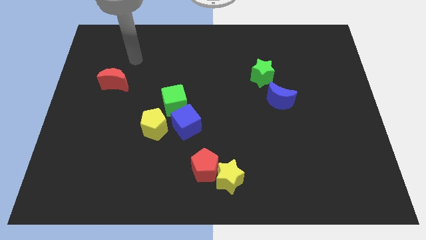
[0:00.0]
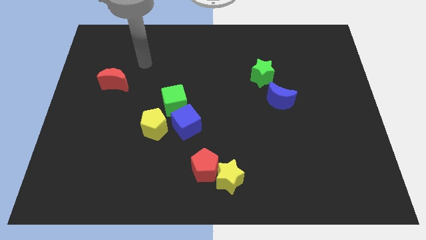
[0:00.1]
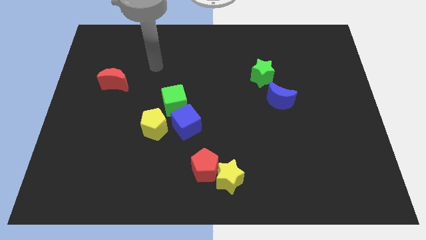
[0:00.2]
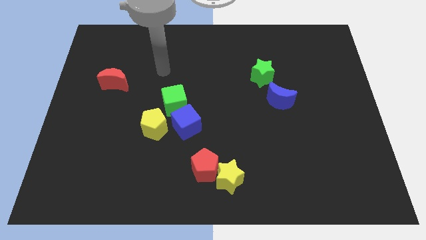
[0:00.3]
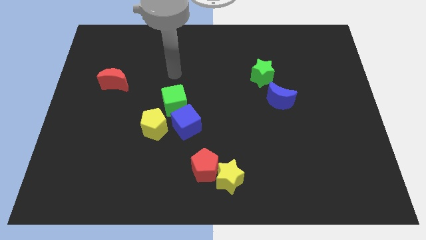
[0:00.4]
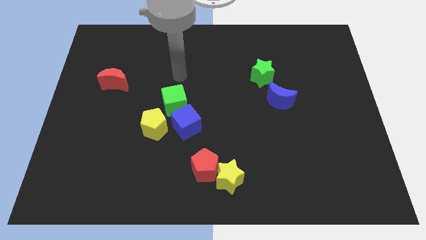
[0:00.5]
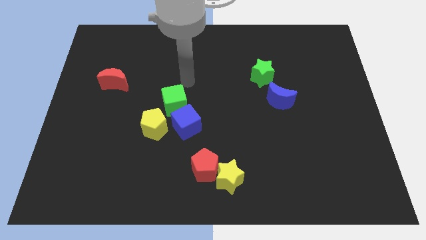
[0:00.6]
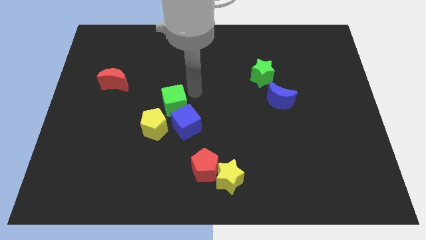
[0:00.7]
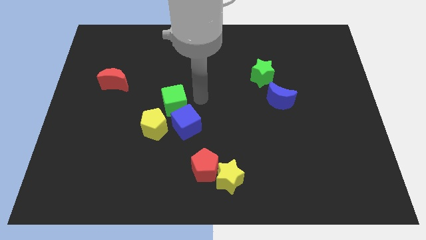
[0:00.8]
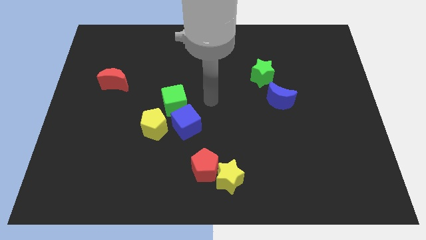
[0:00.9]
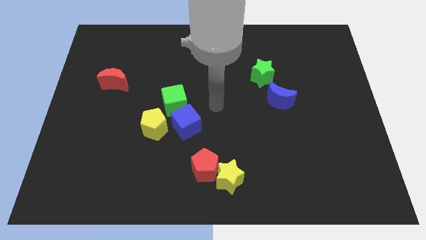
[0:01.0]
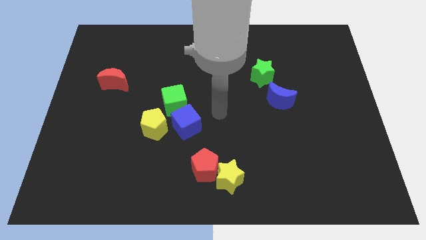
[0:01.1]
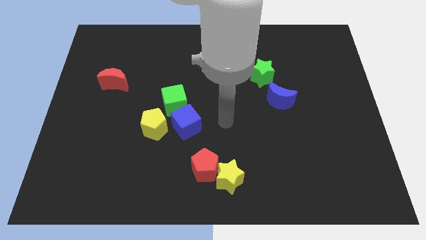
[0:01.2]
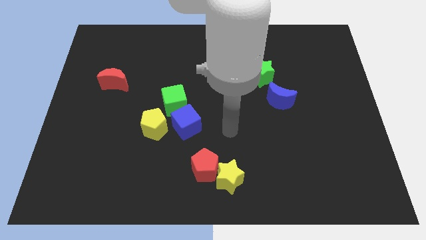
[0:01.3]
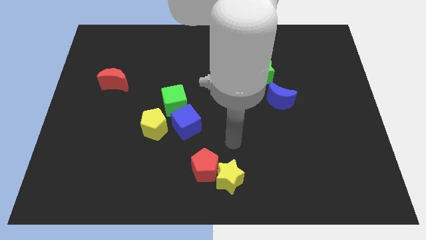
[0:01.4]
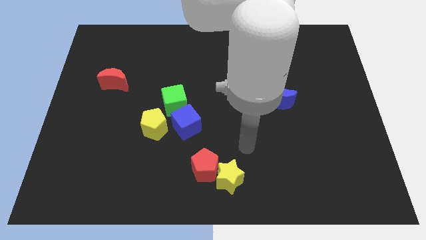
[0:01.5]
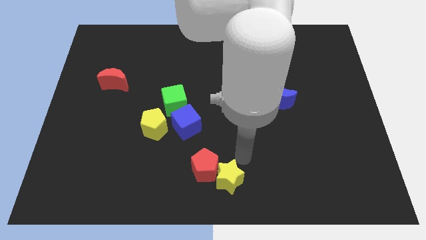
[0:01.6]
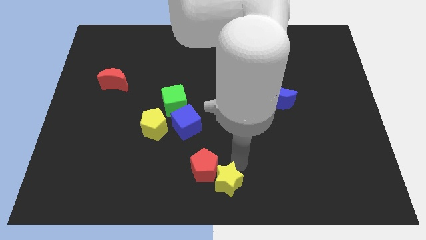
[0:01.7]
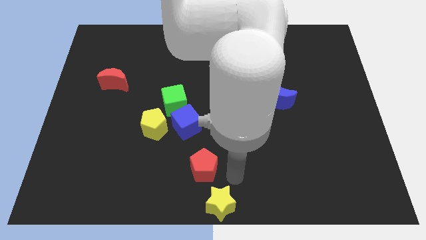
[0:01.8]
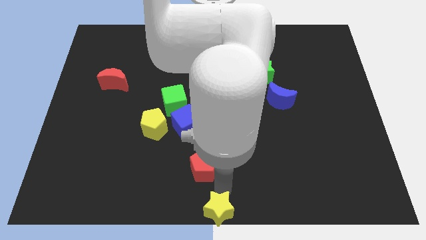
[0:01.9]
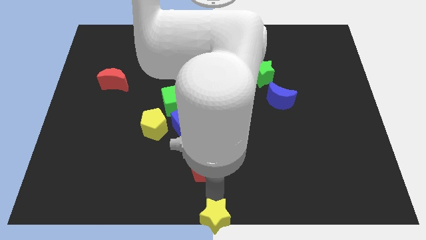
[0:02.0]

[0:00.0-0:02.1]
move the red pentagon away from the yellow star

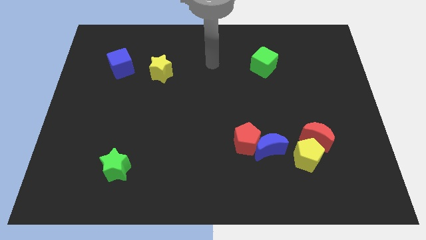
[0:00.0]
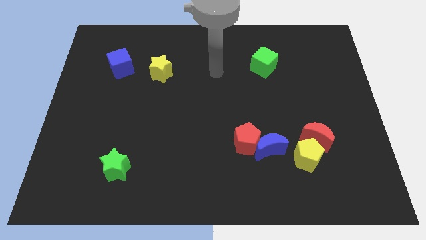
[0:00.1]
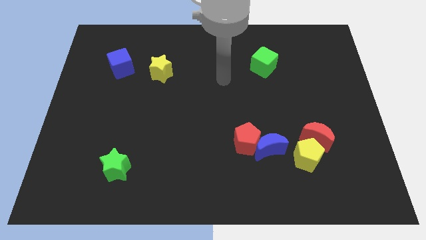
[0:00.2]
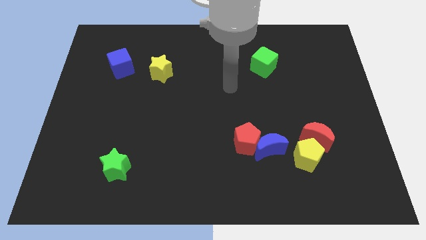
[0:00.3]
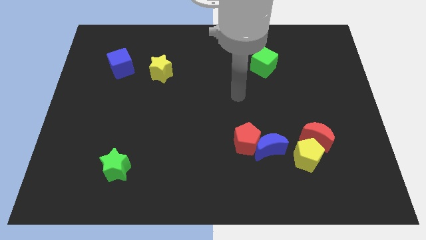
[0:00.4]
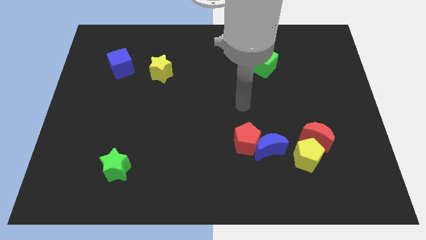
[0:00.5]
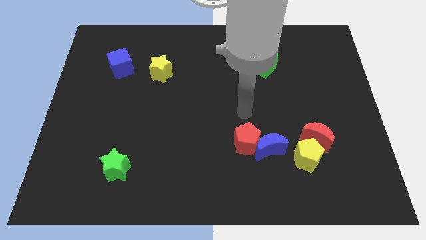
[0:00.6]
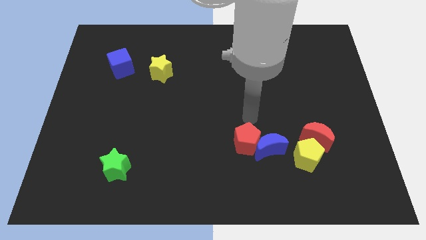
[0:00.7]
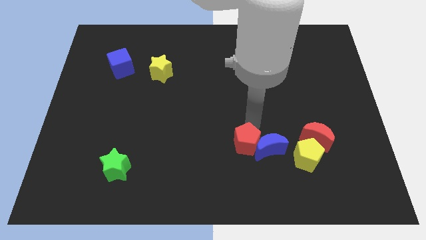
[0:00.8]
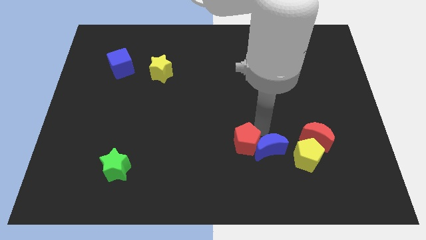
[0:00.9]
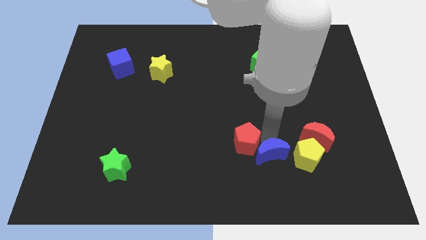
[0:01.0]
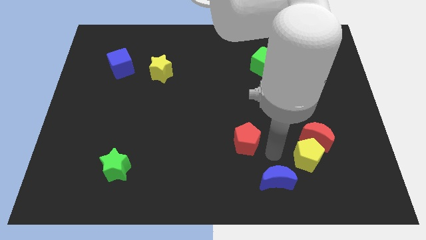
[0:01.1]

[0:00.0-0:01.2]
move the red pentagon away from the blue moon

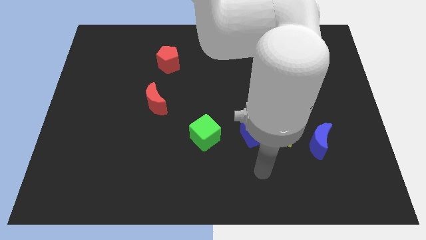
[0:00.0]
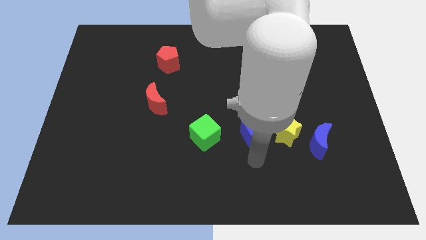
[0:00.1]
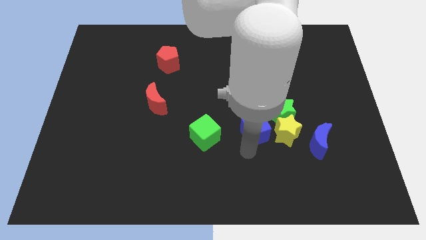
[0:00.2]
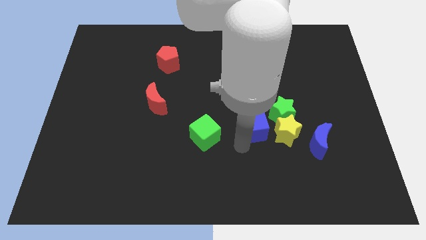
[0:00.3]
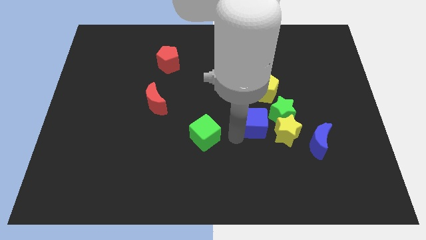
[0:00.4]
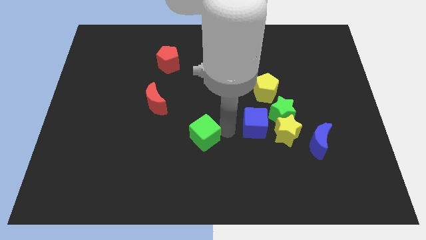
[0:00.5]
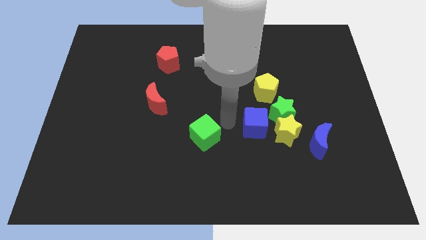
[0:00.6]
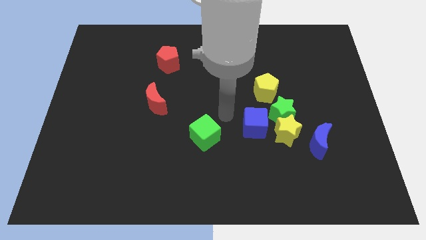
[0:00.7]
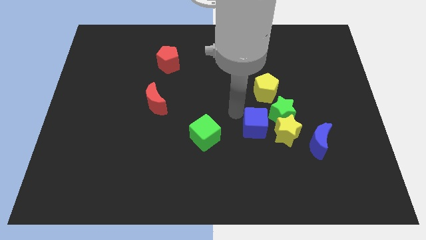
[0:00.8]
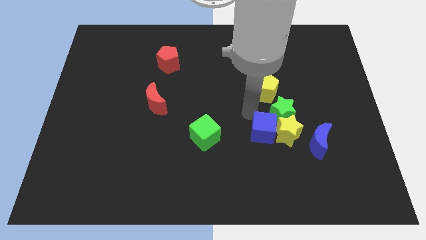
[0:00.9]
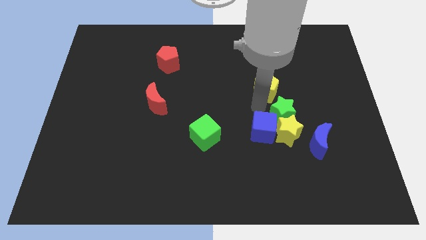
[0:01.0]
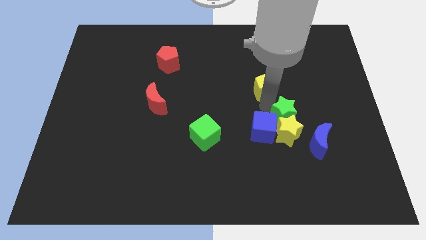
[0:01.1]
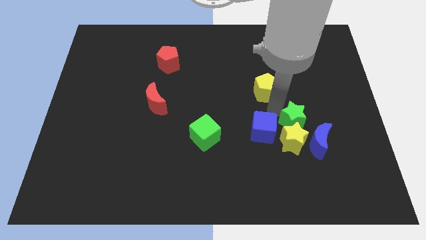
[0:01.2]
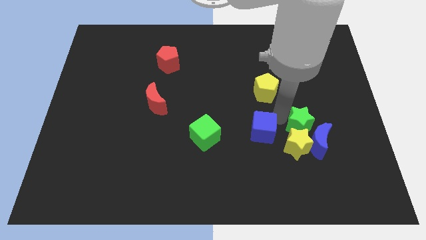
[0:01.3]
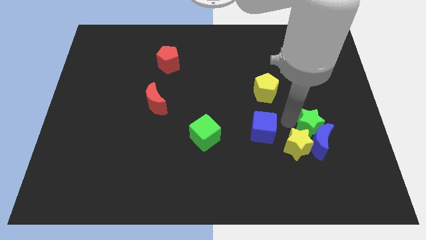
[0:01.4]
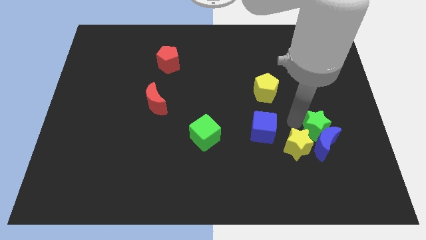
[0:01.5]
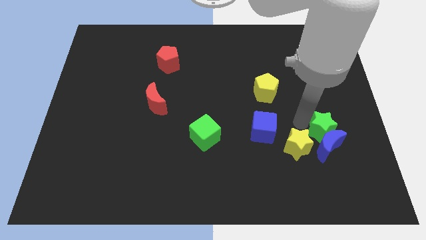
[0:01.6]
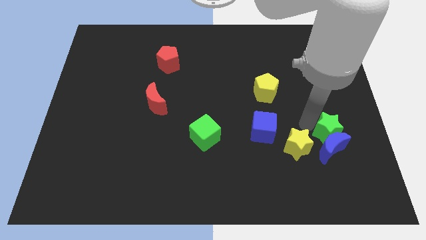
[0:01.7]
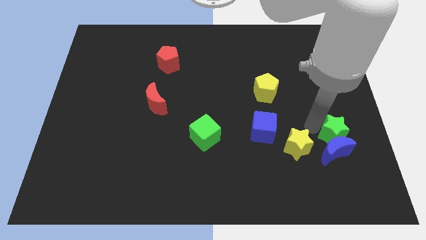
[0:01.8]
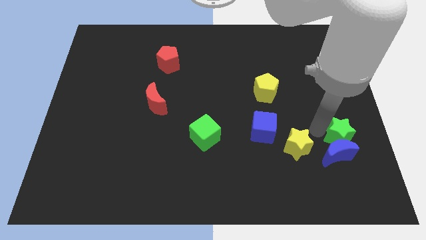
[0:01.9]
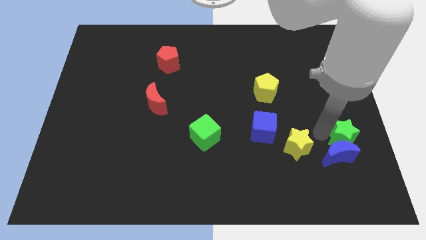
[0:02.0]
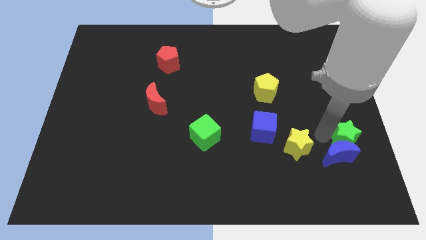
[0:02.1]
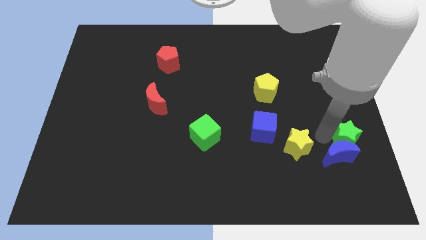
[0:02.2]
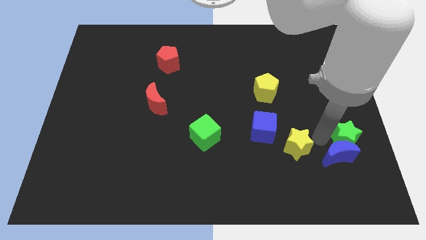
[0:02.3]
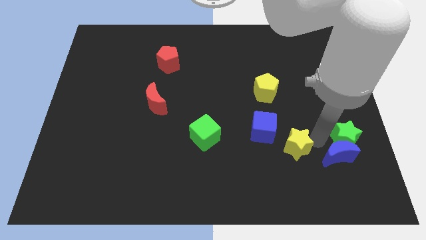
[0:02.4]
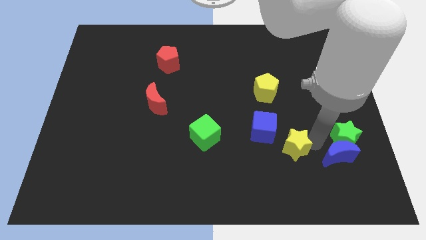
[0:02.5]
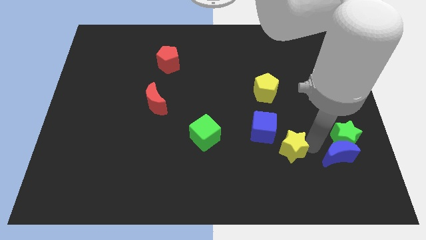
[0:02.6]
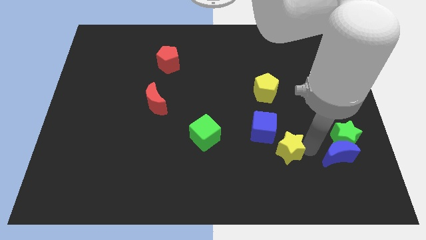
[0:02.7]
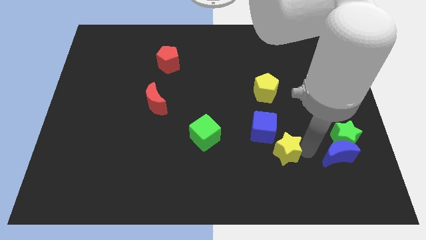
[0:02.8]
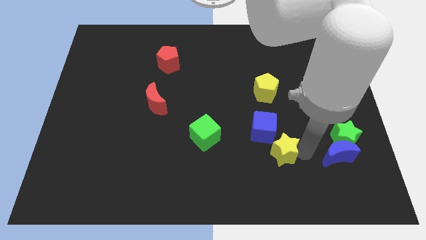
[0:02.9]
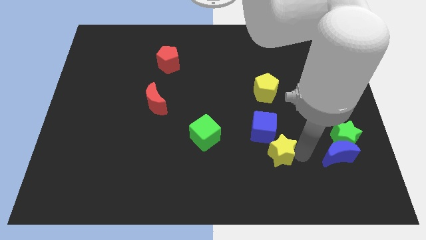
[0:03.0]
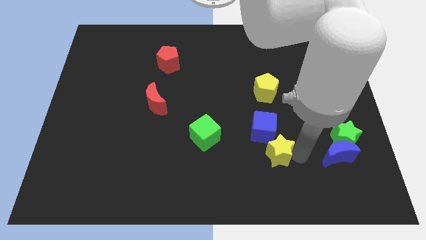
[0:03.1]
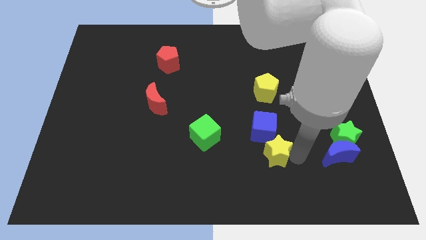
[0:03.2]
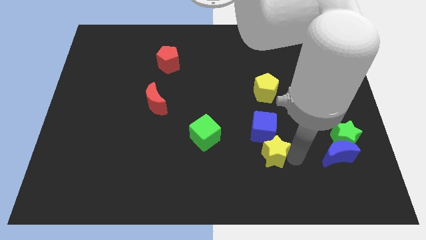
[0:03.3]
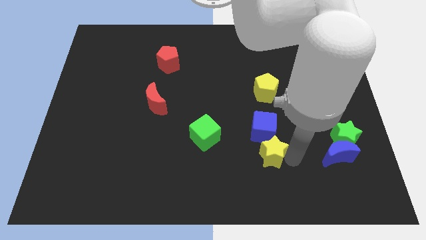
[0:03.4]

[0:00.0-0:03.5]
separate the yellow star from the green star, blue moon, and blue cube

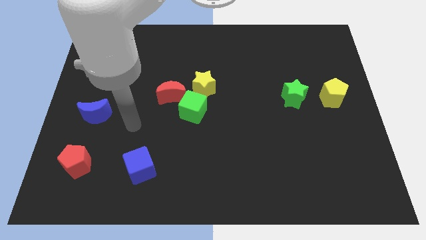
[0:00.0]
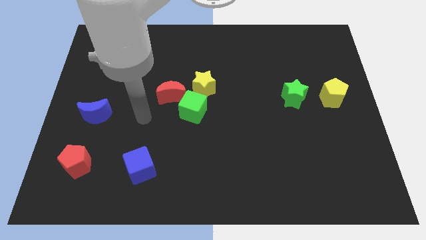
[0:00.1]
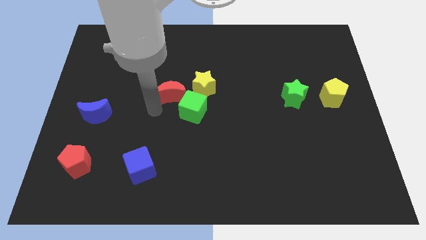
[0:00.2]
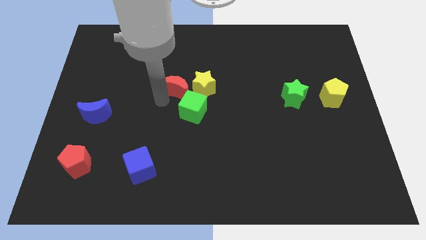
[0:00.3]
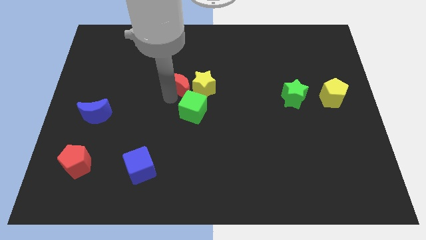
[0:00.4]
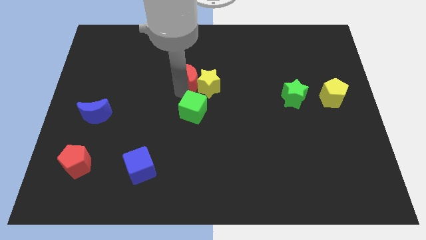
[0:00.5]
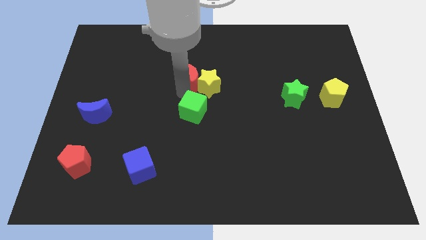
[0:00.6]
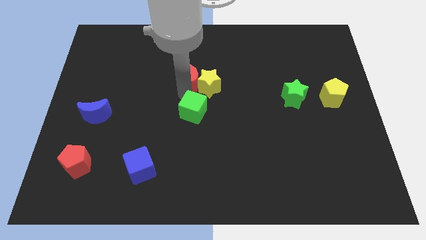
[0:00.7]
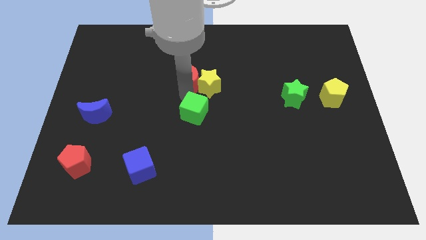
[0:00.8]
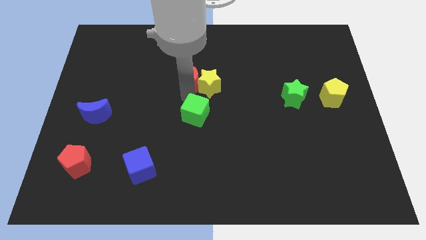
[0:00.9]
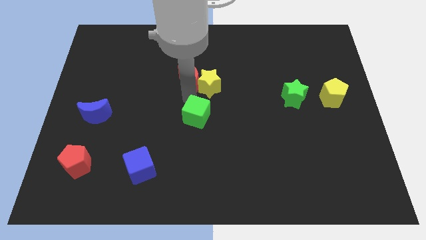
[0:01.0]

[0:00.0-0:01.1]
separate the green cube from the red moon and yellow star

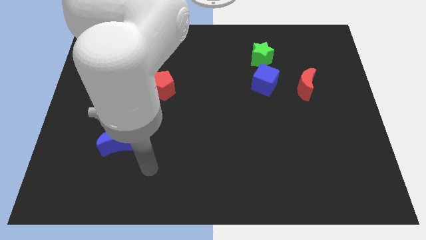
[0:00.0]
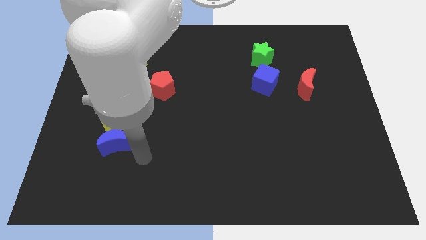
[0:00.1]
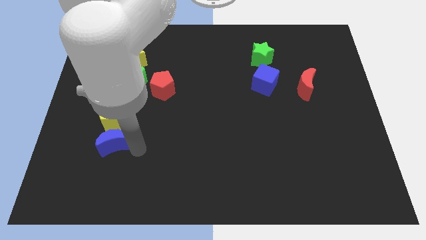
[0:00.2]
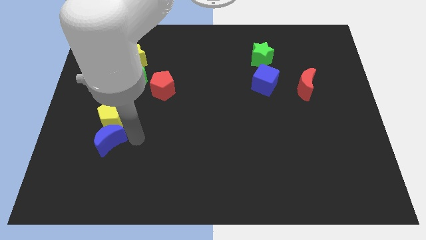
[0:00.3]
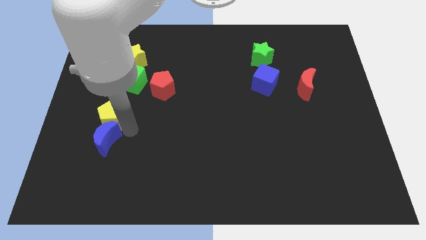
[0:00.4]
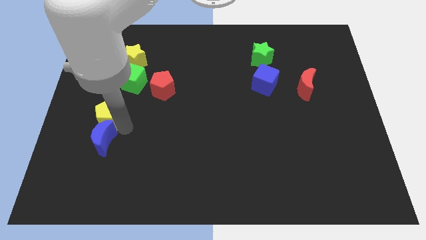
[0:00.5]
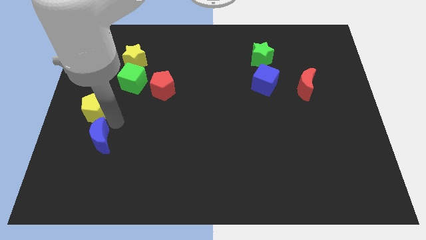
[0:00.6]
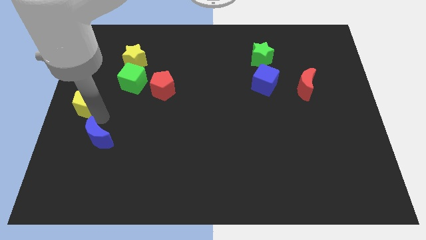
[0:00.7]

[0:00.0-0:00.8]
separate the blue moon from the yellow pentagon

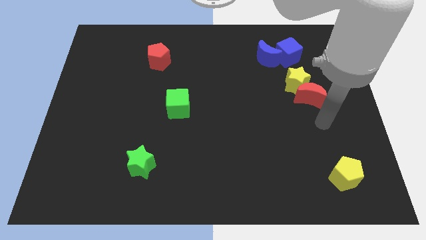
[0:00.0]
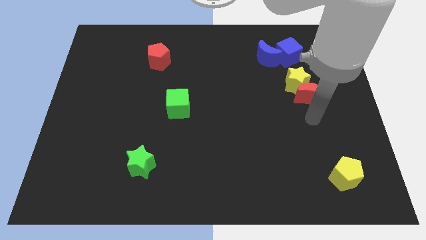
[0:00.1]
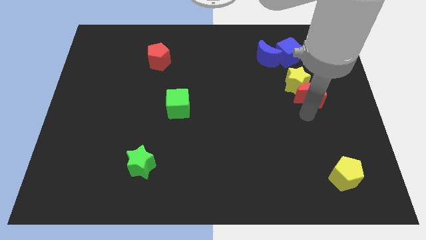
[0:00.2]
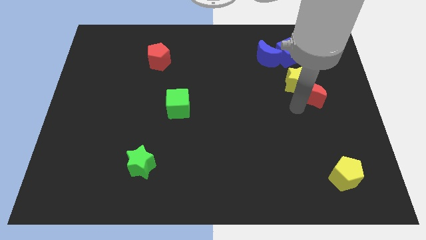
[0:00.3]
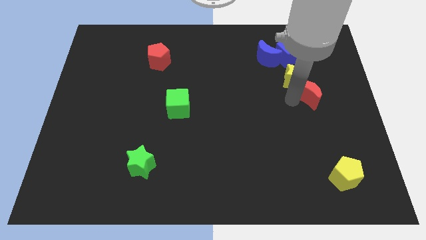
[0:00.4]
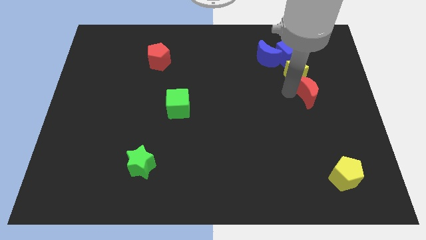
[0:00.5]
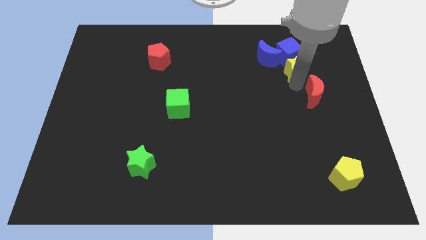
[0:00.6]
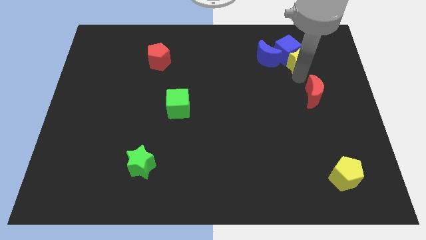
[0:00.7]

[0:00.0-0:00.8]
pull the red moon apart from the yellow star
